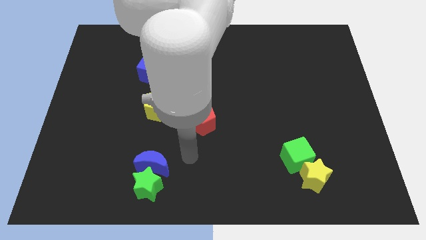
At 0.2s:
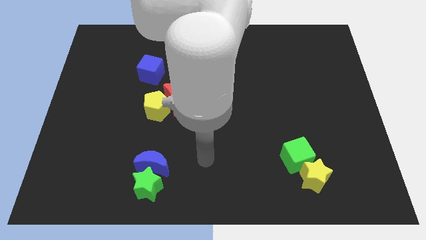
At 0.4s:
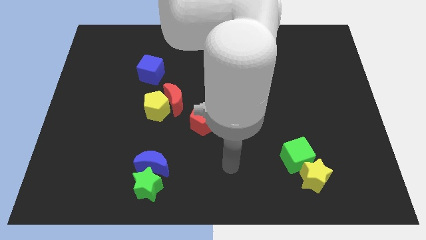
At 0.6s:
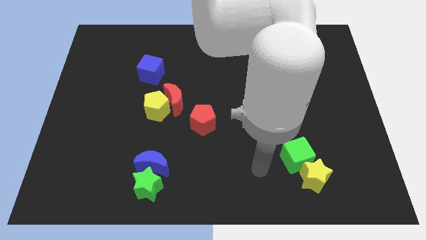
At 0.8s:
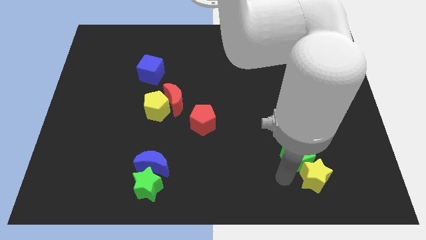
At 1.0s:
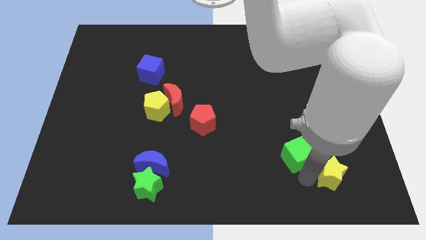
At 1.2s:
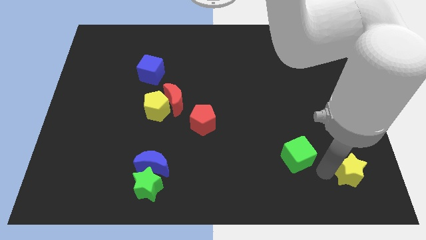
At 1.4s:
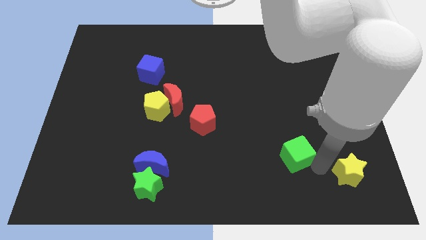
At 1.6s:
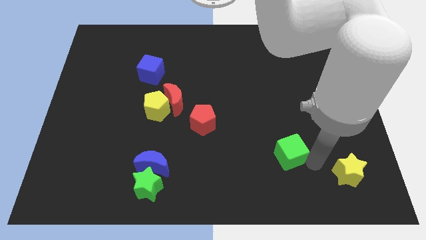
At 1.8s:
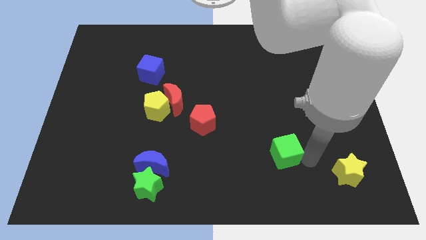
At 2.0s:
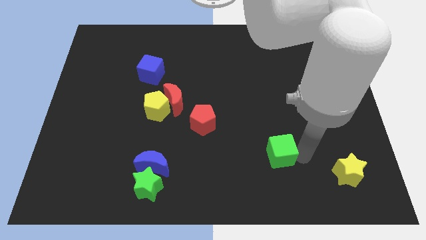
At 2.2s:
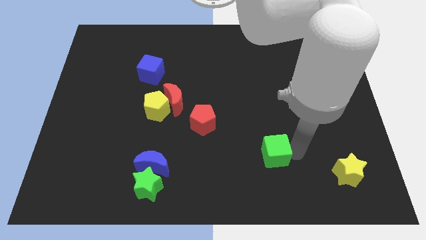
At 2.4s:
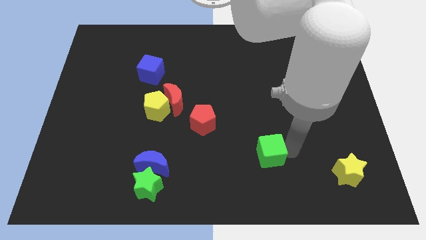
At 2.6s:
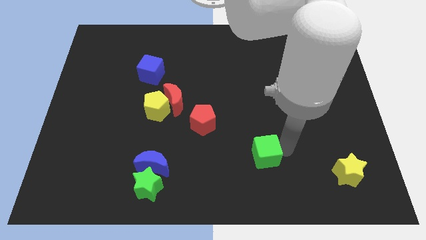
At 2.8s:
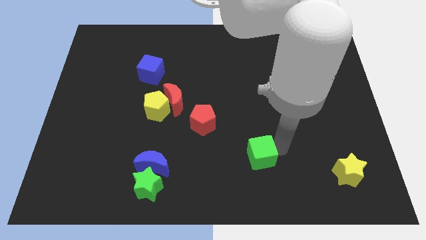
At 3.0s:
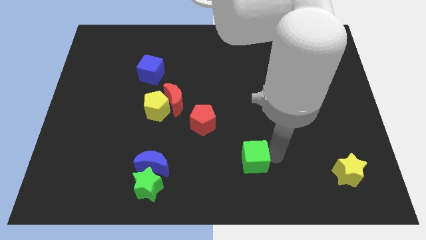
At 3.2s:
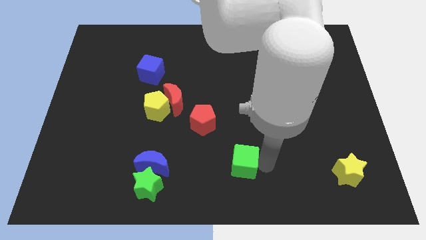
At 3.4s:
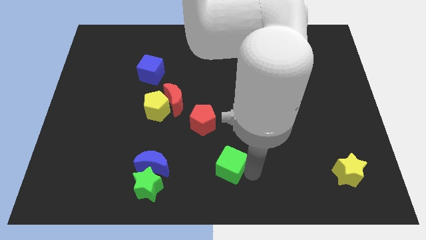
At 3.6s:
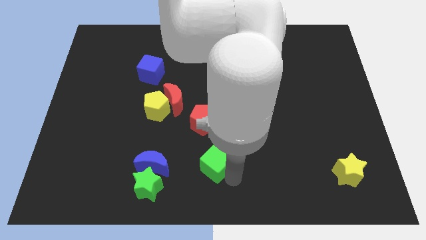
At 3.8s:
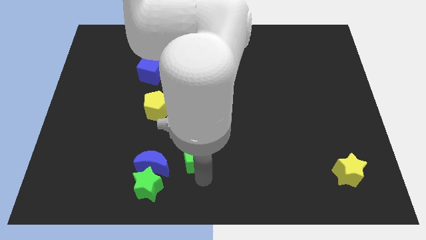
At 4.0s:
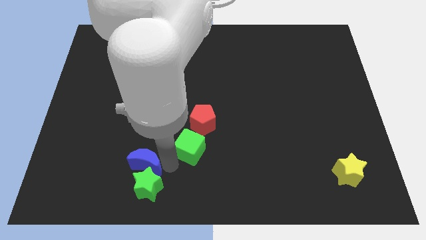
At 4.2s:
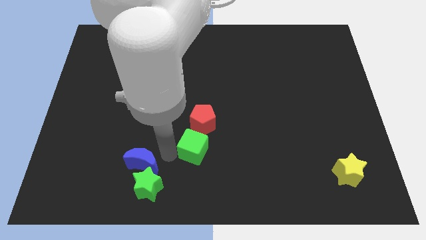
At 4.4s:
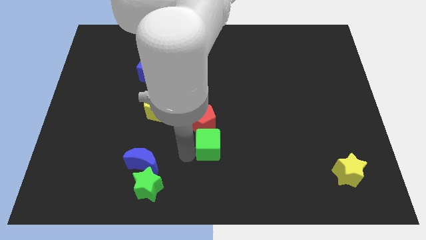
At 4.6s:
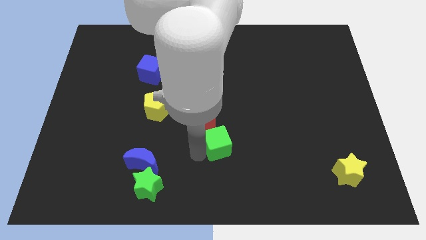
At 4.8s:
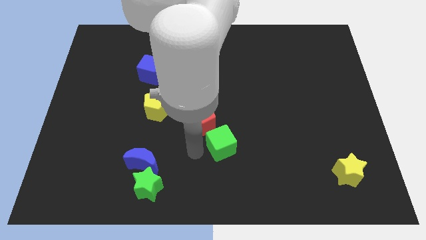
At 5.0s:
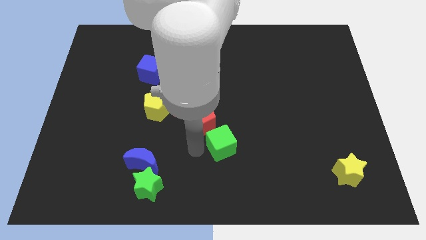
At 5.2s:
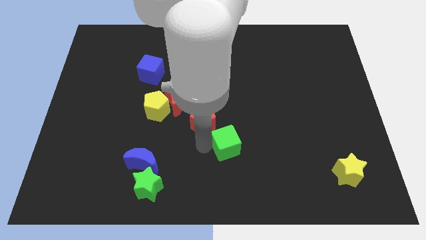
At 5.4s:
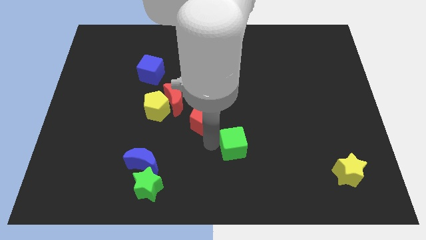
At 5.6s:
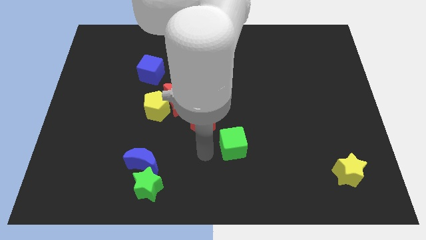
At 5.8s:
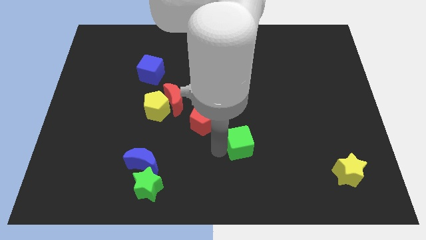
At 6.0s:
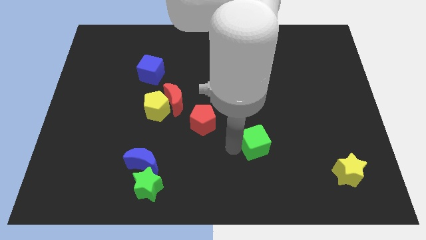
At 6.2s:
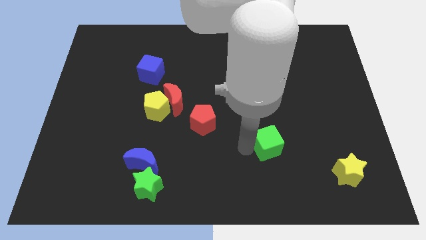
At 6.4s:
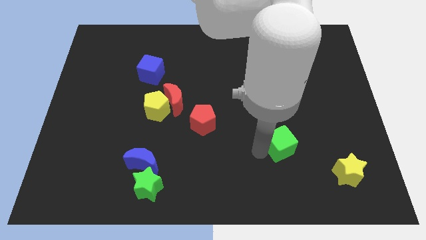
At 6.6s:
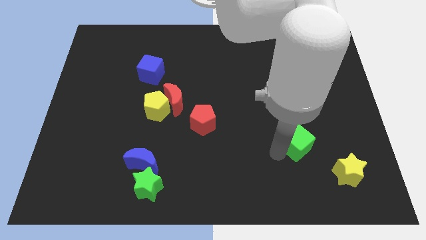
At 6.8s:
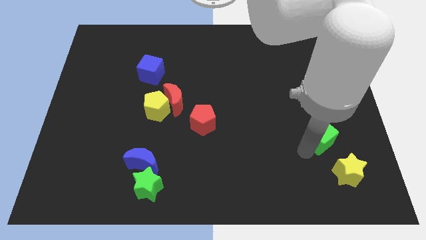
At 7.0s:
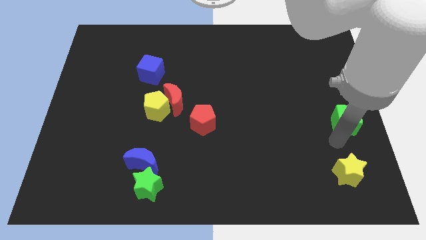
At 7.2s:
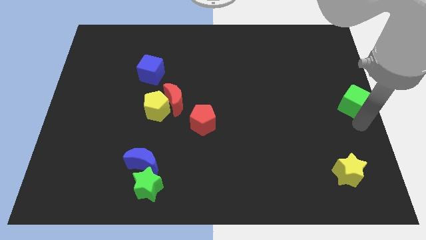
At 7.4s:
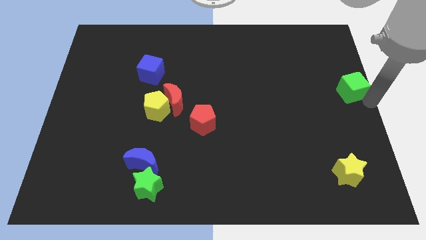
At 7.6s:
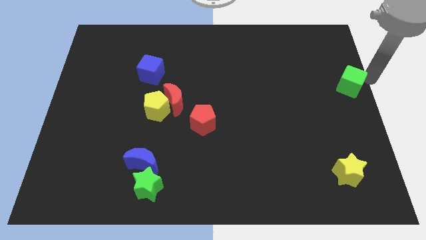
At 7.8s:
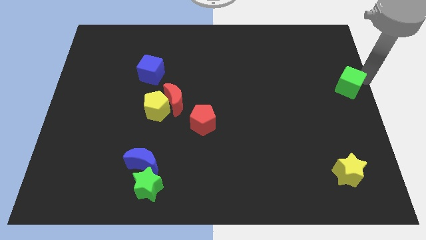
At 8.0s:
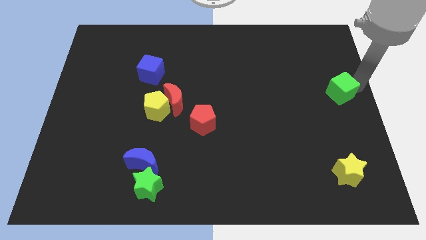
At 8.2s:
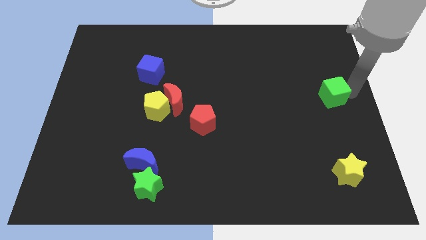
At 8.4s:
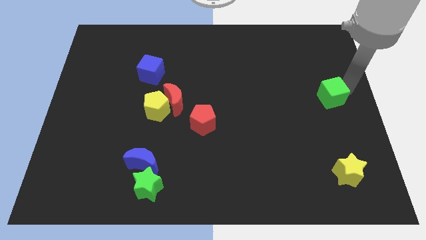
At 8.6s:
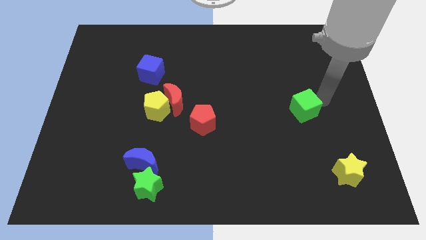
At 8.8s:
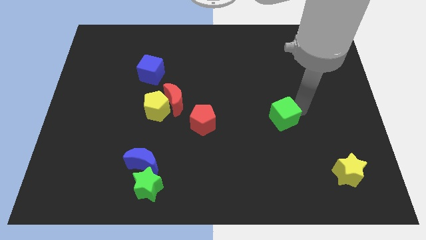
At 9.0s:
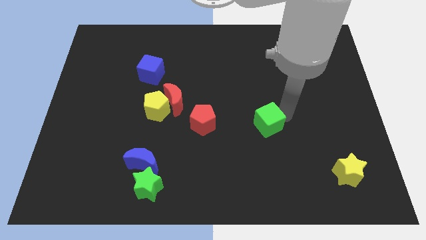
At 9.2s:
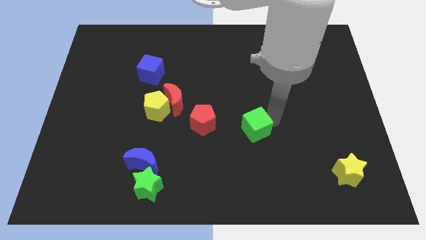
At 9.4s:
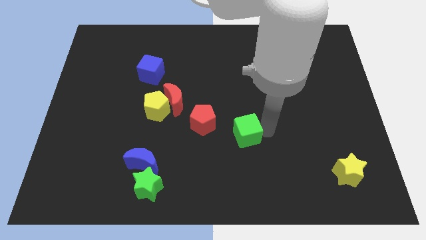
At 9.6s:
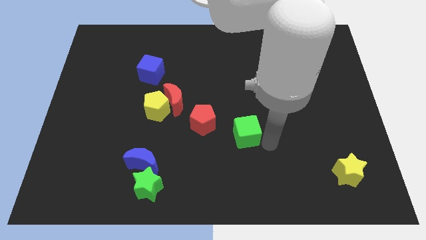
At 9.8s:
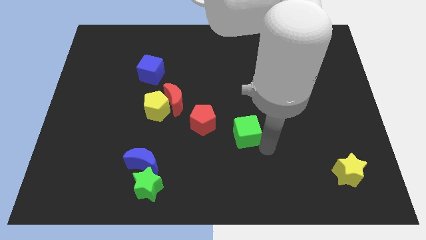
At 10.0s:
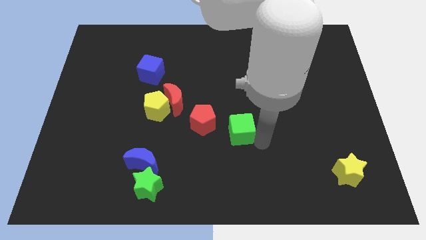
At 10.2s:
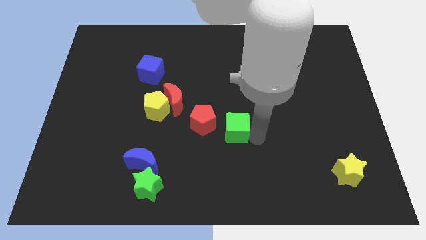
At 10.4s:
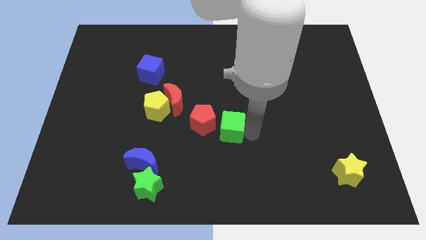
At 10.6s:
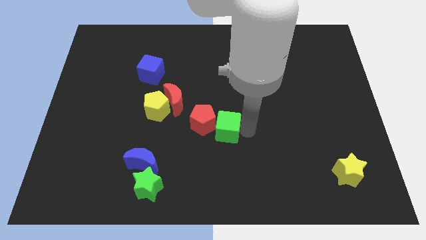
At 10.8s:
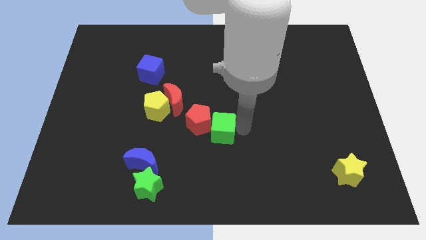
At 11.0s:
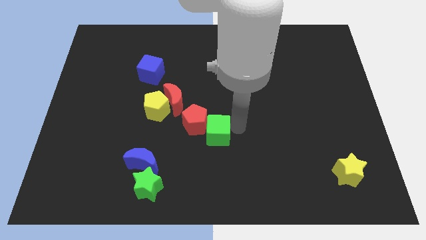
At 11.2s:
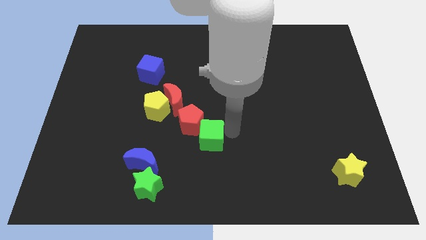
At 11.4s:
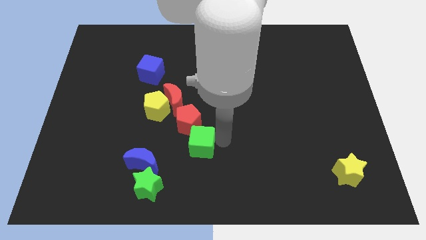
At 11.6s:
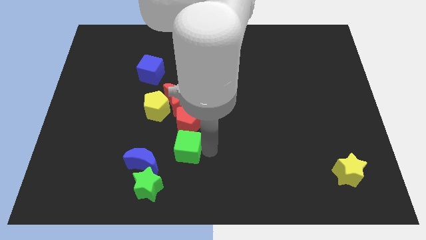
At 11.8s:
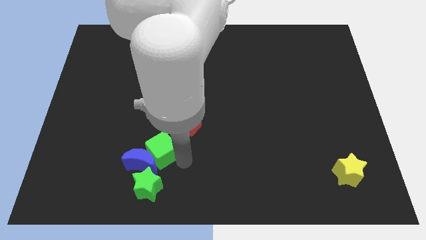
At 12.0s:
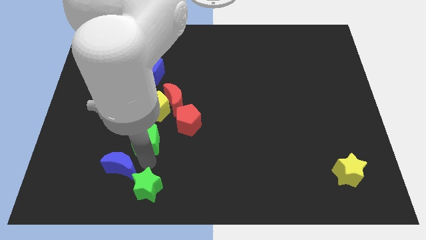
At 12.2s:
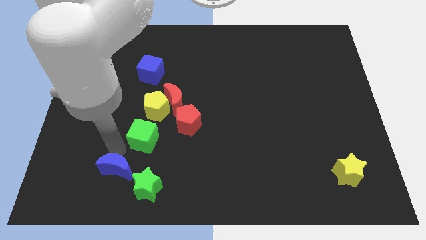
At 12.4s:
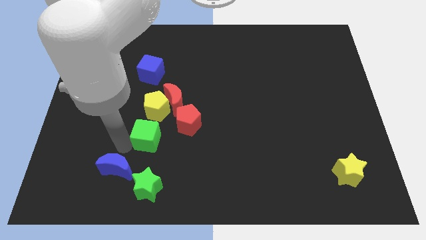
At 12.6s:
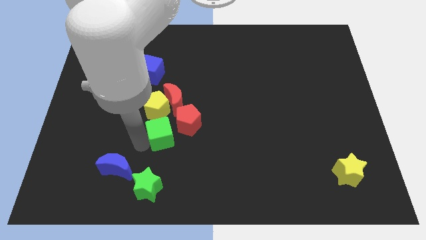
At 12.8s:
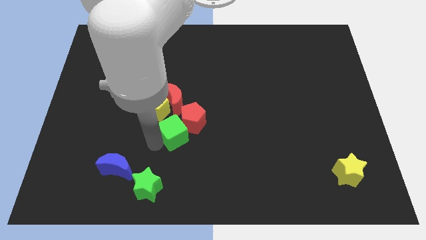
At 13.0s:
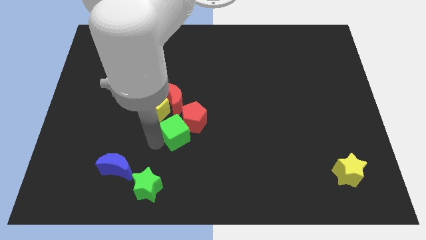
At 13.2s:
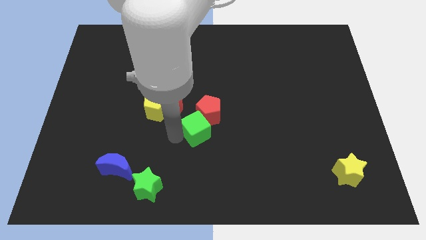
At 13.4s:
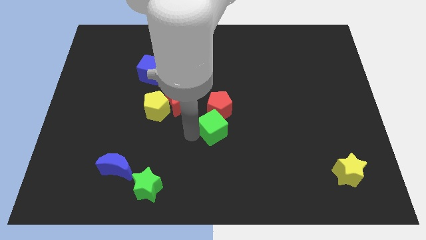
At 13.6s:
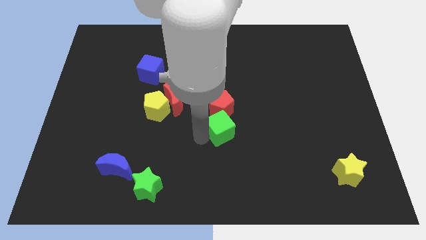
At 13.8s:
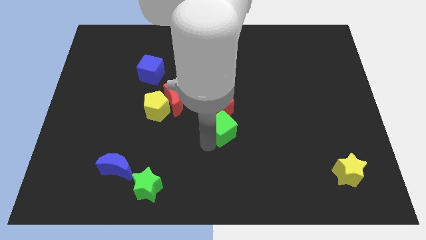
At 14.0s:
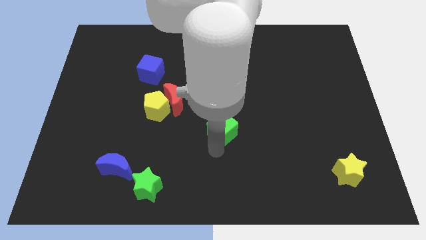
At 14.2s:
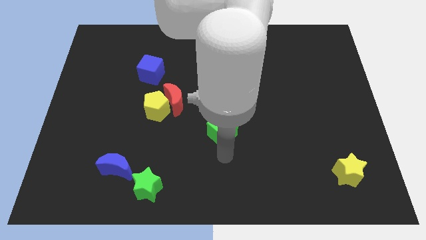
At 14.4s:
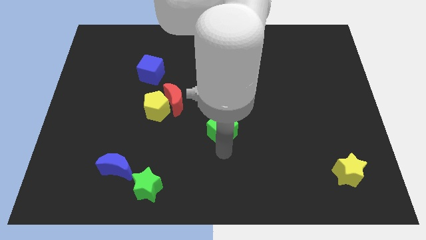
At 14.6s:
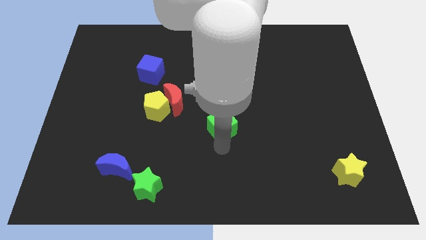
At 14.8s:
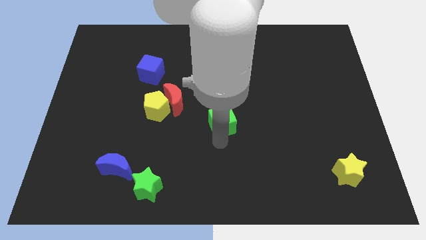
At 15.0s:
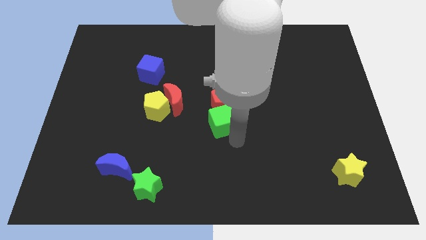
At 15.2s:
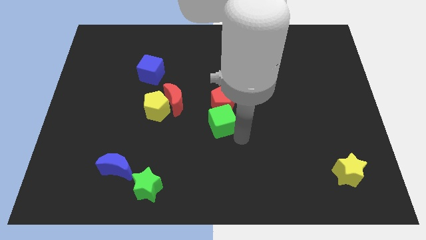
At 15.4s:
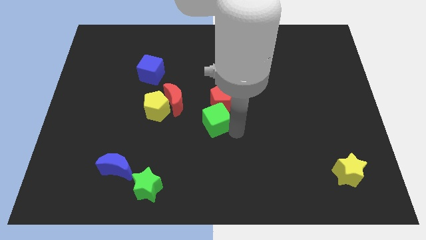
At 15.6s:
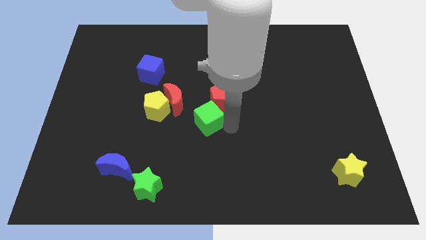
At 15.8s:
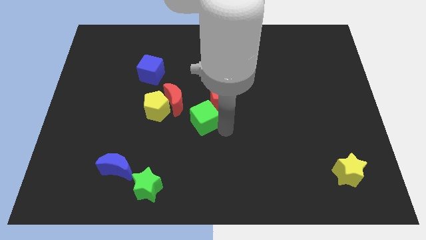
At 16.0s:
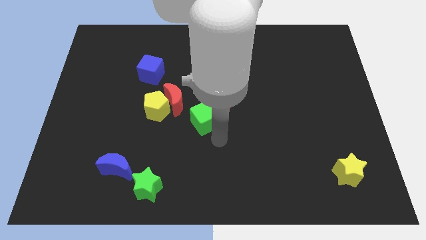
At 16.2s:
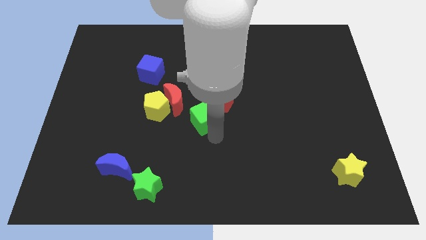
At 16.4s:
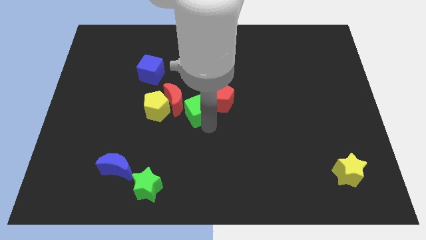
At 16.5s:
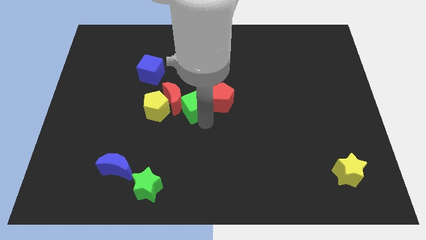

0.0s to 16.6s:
push the green cube towards the red moon
